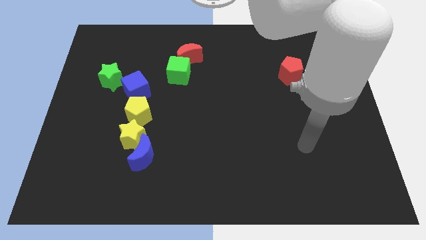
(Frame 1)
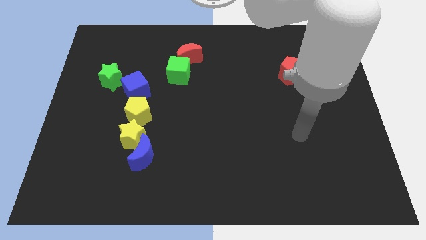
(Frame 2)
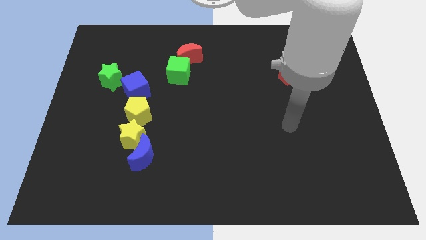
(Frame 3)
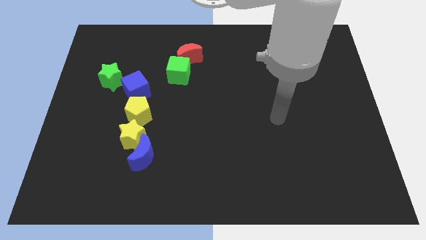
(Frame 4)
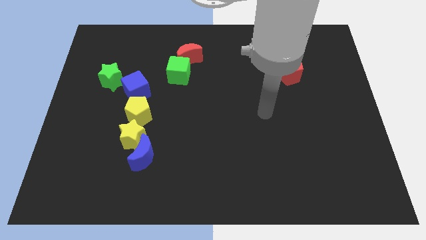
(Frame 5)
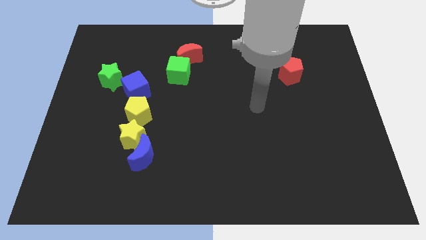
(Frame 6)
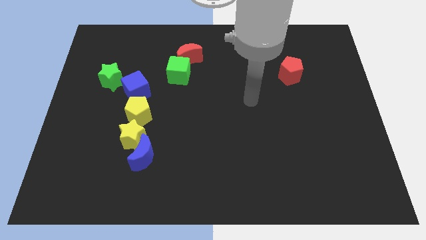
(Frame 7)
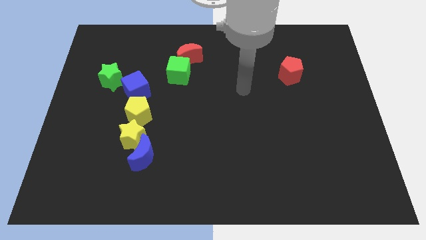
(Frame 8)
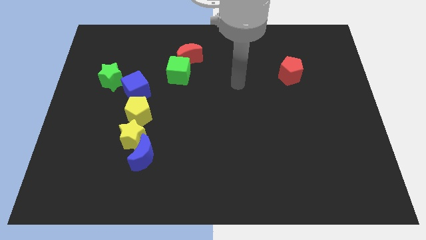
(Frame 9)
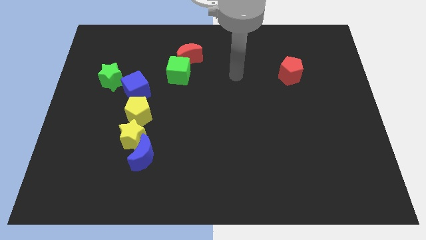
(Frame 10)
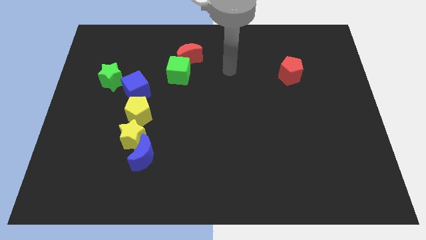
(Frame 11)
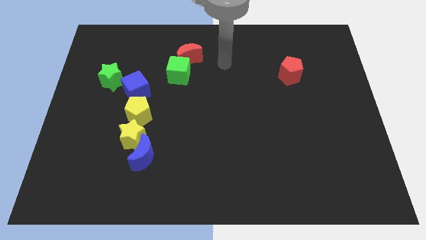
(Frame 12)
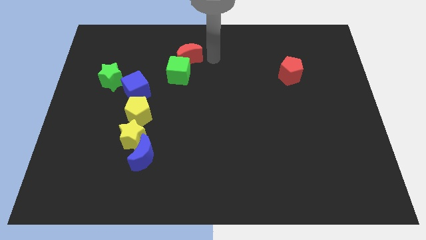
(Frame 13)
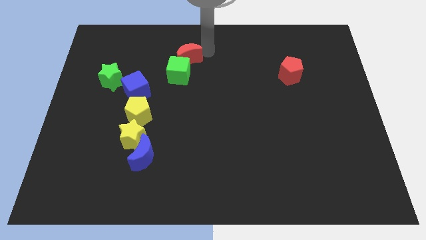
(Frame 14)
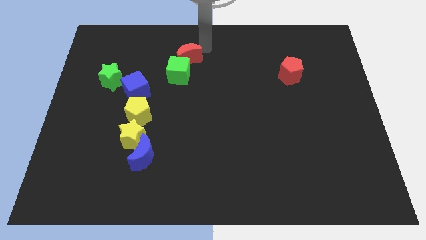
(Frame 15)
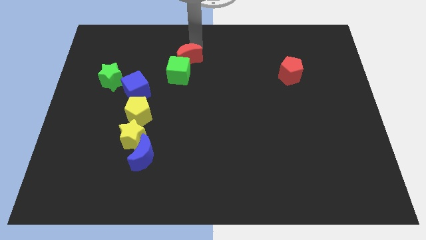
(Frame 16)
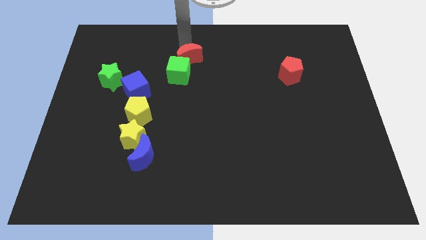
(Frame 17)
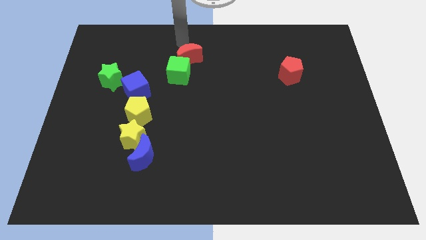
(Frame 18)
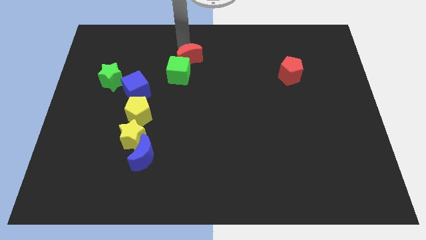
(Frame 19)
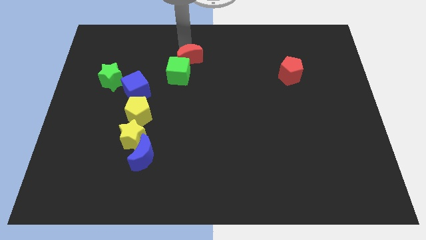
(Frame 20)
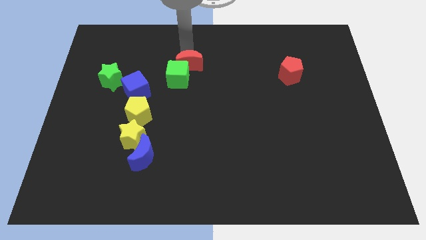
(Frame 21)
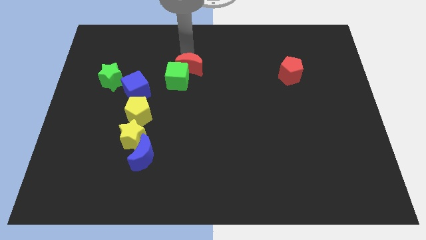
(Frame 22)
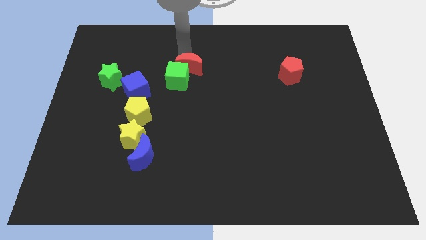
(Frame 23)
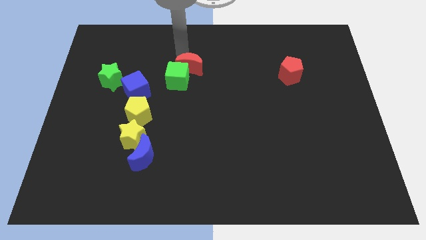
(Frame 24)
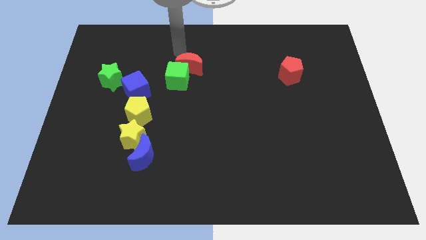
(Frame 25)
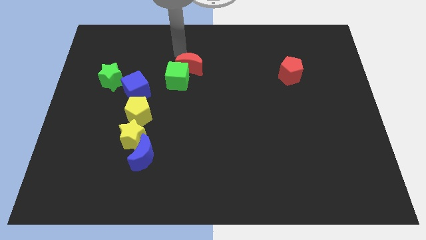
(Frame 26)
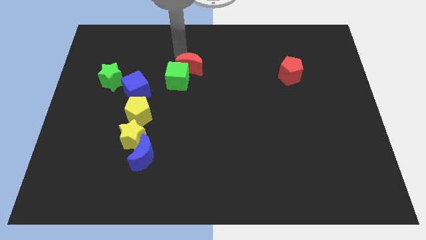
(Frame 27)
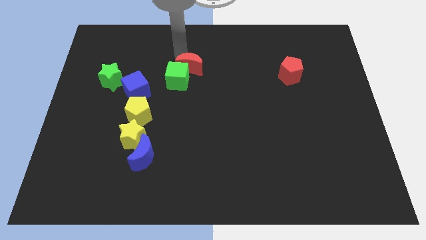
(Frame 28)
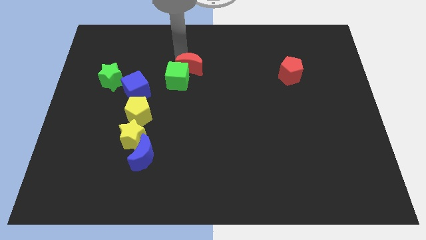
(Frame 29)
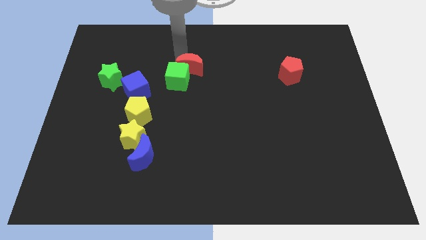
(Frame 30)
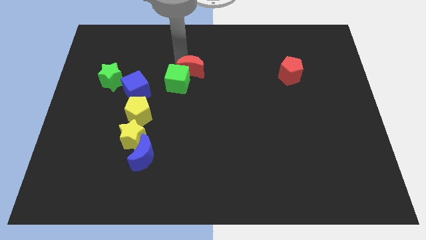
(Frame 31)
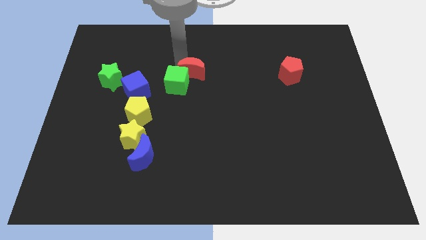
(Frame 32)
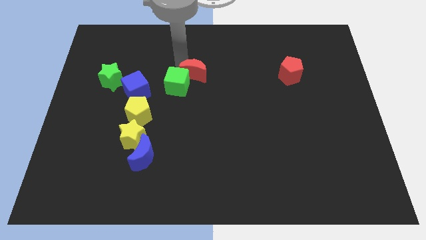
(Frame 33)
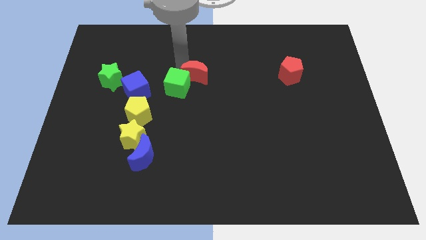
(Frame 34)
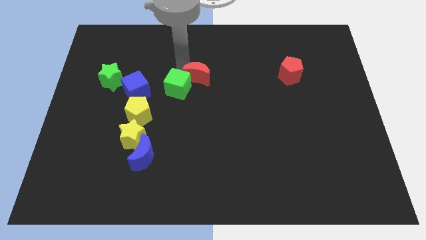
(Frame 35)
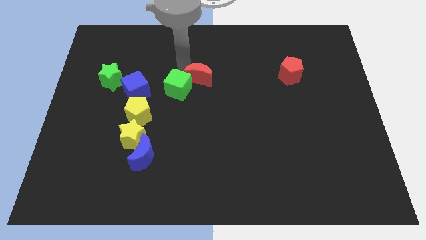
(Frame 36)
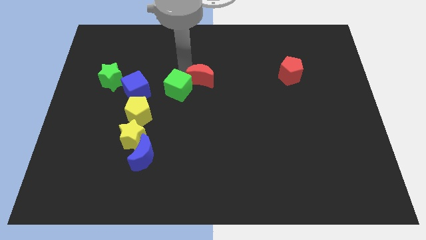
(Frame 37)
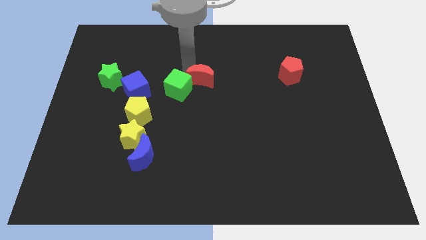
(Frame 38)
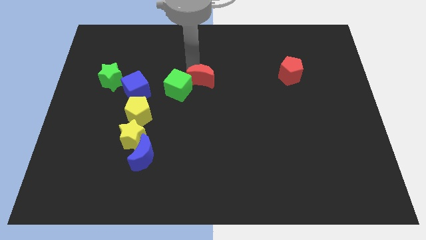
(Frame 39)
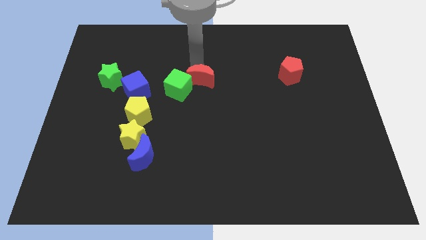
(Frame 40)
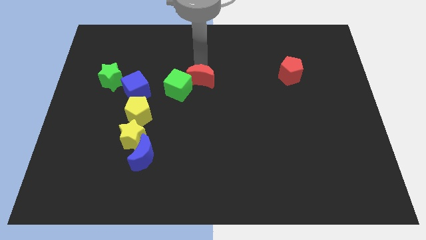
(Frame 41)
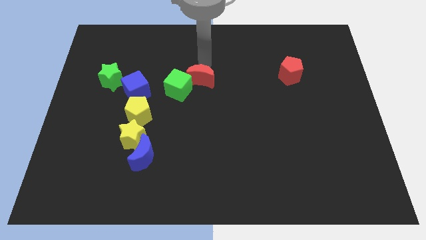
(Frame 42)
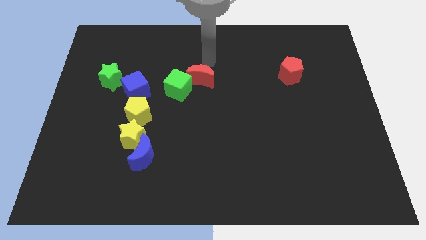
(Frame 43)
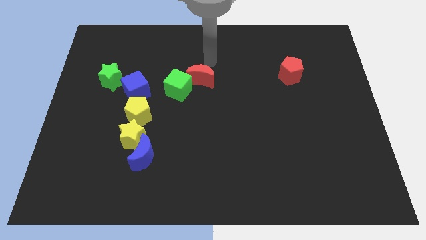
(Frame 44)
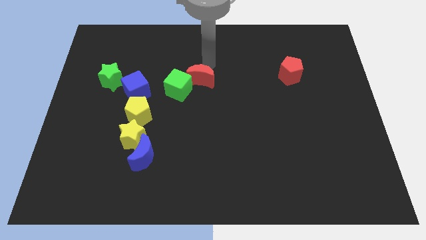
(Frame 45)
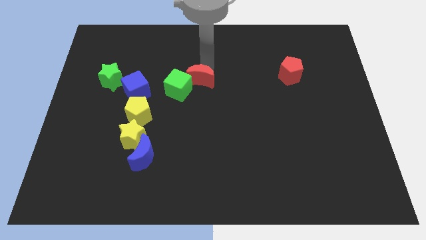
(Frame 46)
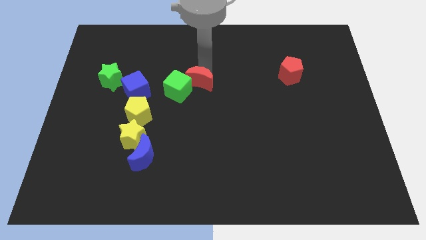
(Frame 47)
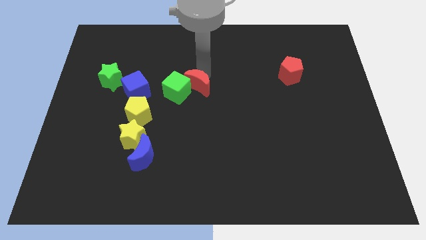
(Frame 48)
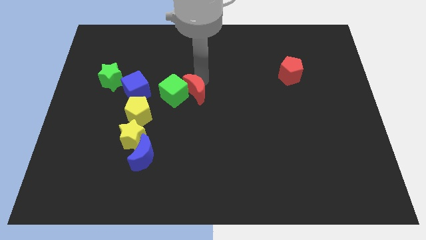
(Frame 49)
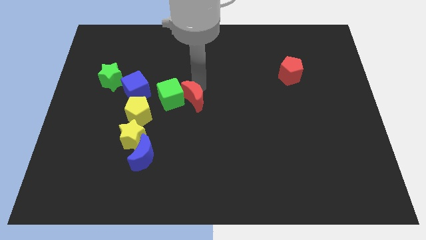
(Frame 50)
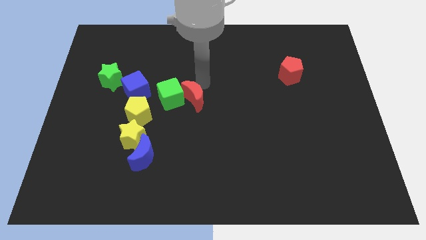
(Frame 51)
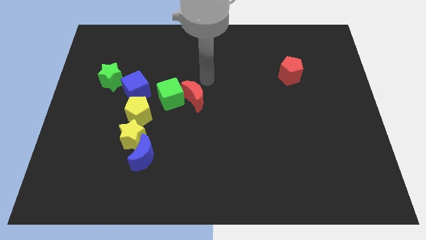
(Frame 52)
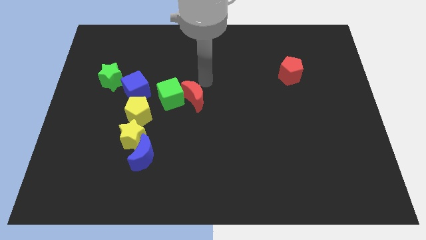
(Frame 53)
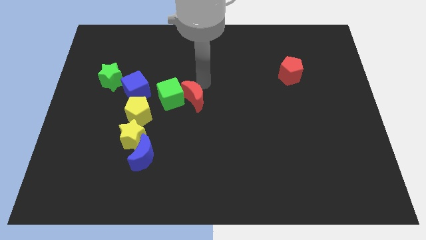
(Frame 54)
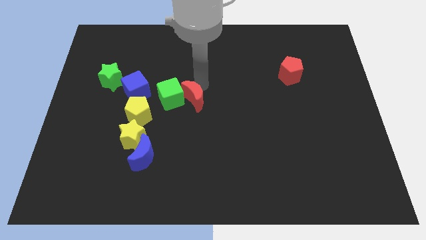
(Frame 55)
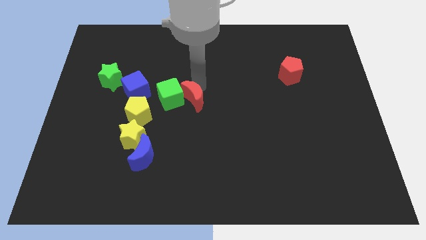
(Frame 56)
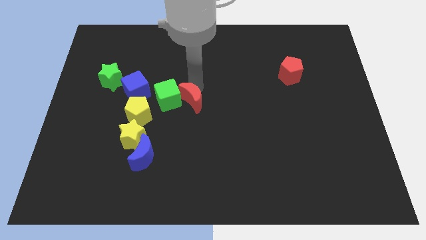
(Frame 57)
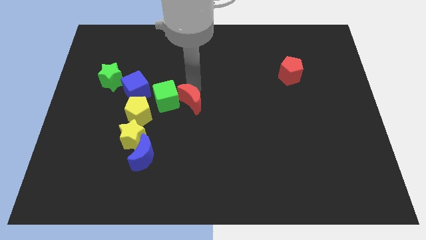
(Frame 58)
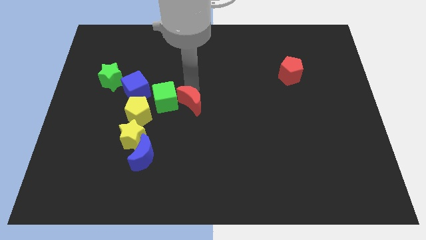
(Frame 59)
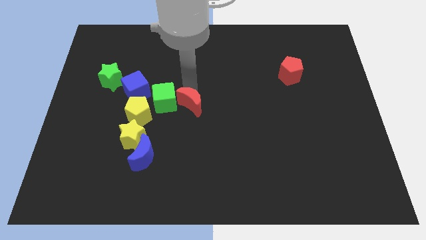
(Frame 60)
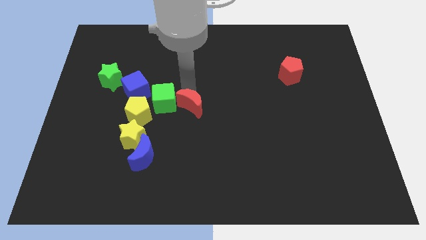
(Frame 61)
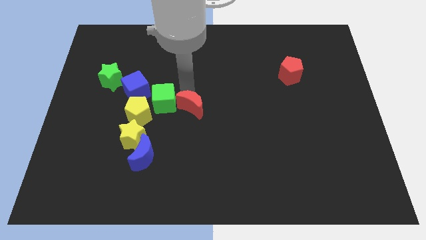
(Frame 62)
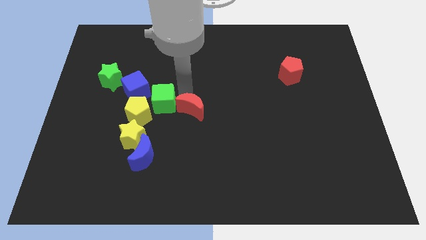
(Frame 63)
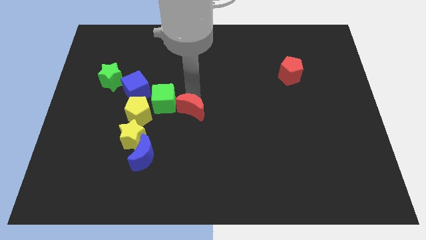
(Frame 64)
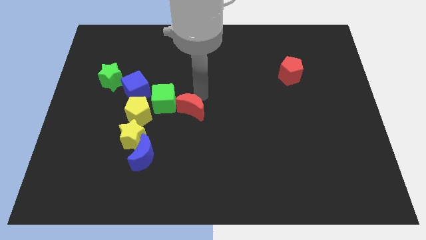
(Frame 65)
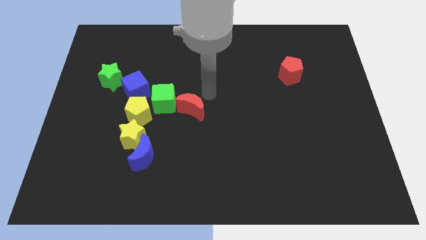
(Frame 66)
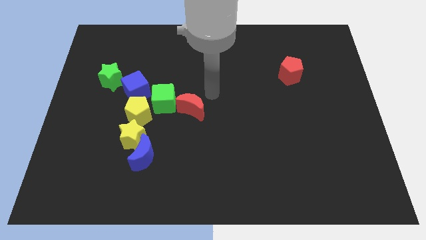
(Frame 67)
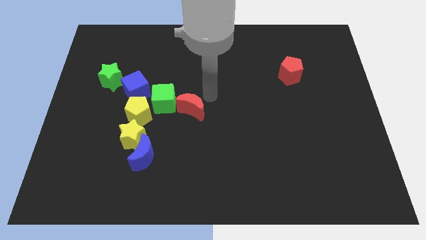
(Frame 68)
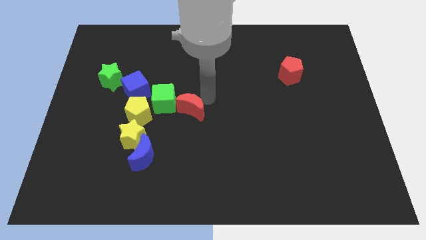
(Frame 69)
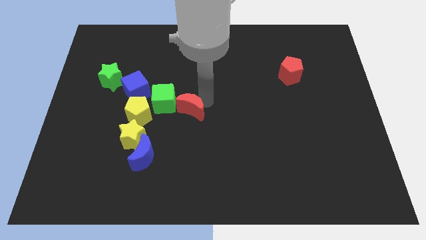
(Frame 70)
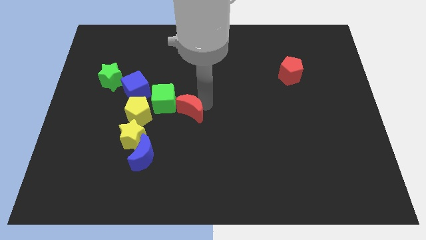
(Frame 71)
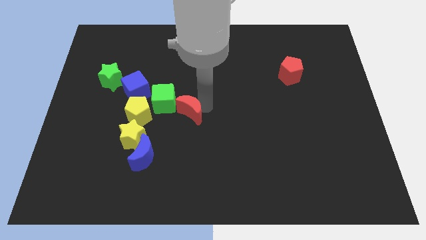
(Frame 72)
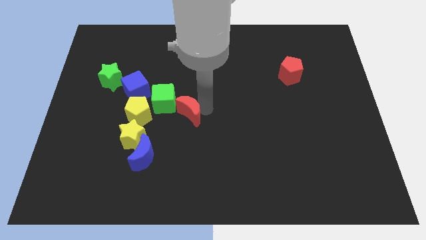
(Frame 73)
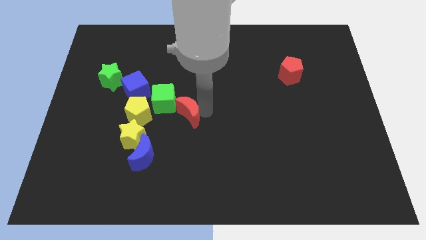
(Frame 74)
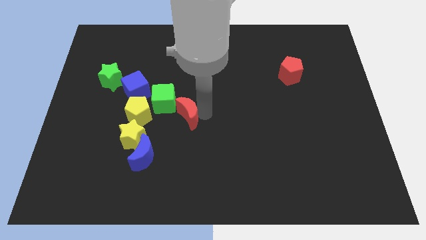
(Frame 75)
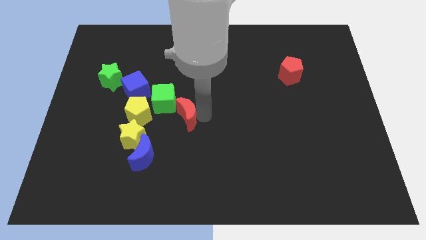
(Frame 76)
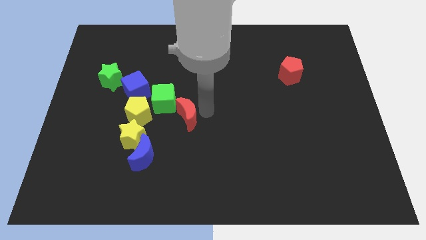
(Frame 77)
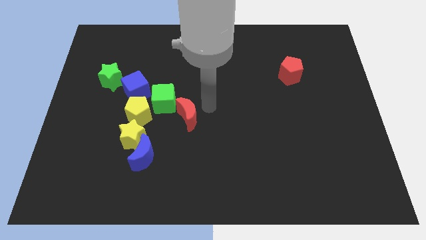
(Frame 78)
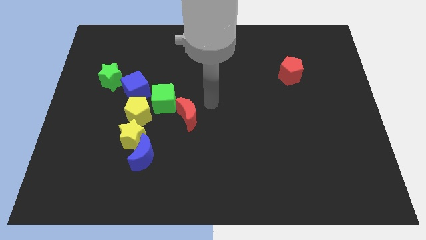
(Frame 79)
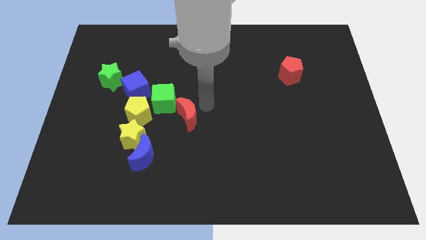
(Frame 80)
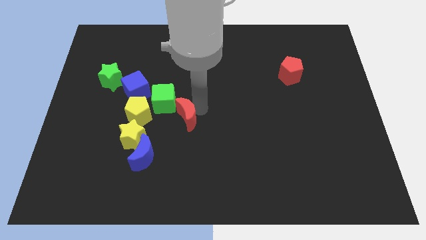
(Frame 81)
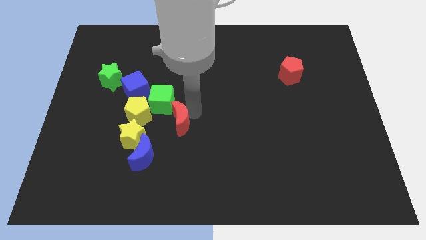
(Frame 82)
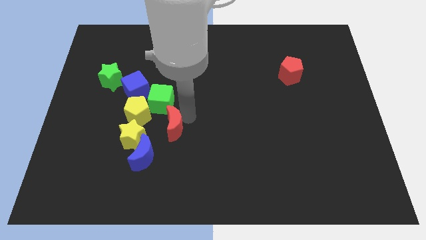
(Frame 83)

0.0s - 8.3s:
move the red moon diagonally down and to the right of the yellow pentagon

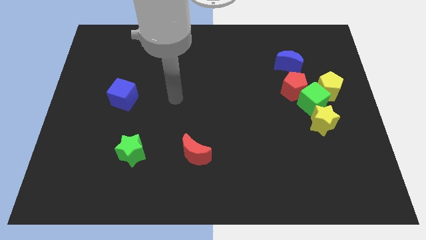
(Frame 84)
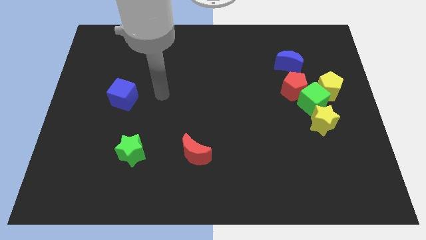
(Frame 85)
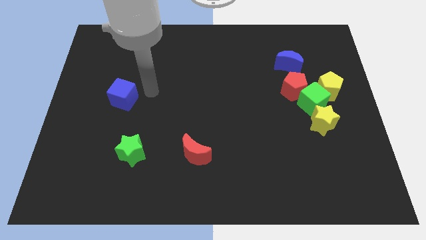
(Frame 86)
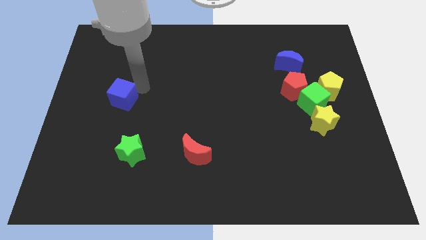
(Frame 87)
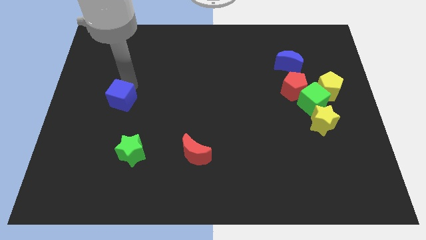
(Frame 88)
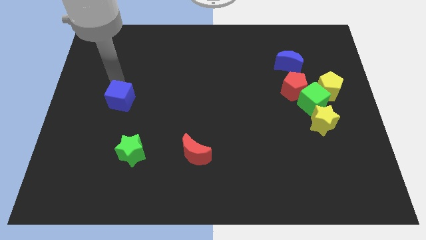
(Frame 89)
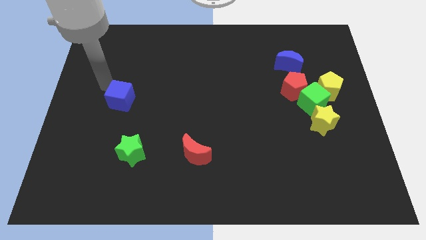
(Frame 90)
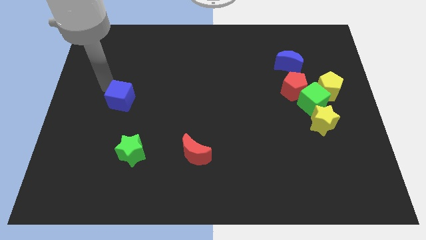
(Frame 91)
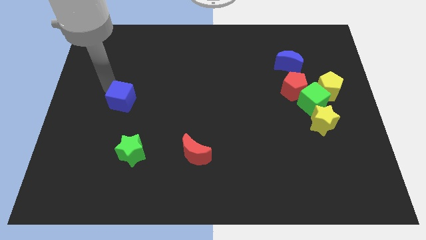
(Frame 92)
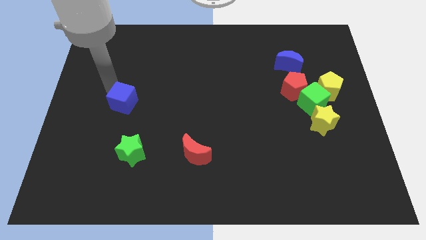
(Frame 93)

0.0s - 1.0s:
put the blue cube to the top of the green star
